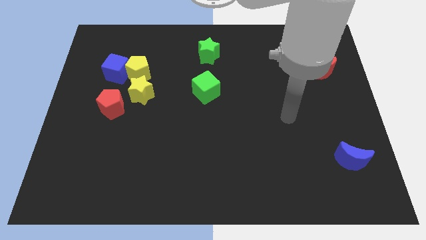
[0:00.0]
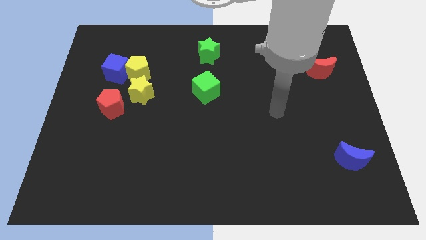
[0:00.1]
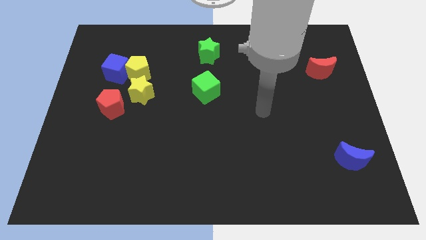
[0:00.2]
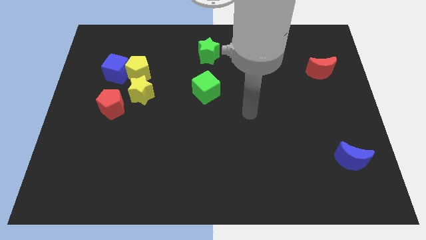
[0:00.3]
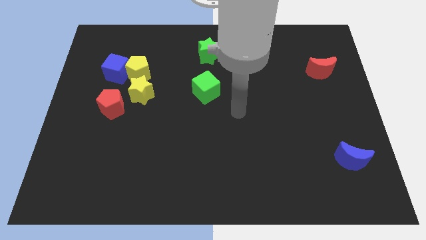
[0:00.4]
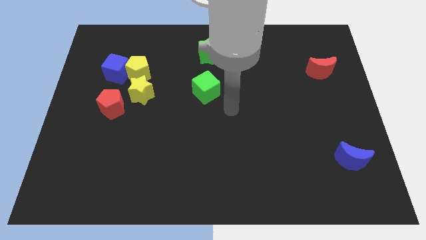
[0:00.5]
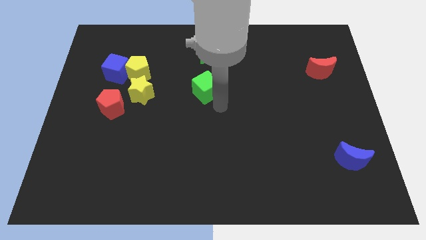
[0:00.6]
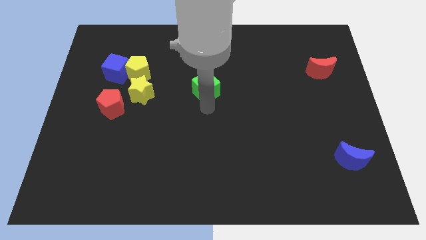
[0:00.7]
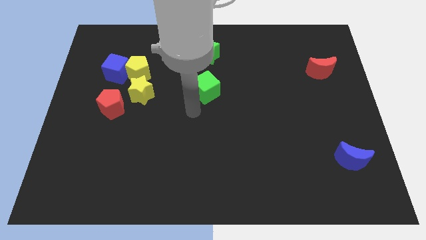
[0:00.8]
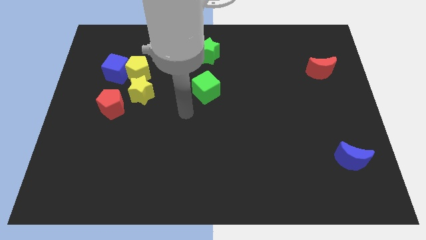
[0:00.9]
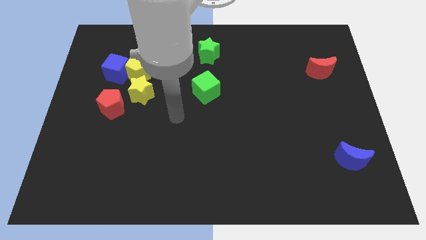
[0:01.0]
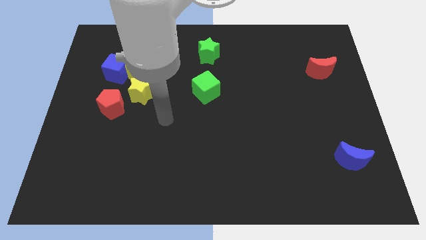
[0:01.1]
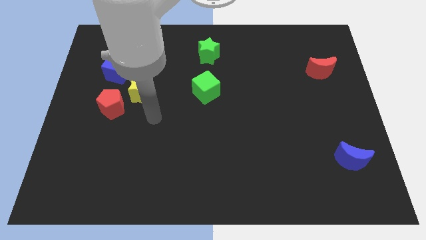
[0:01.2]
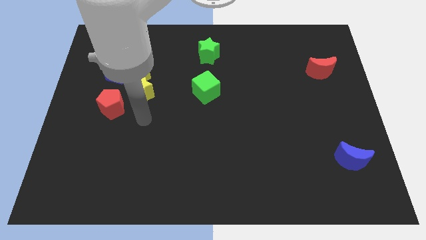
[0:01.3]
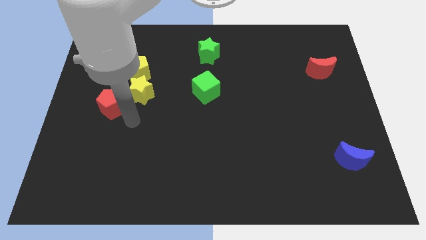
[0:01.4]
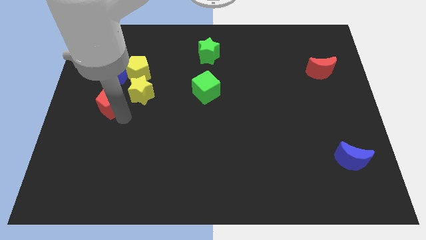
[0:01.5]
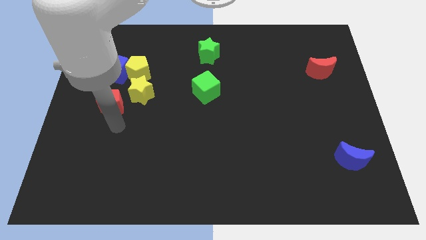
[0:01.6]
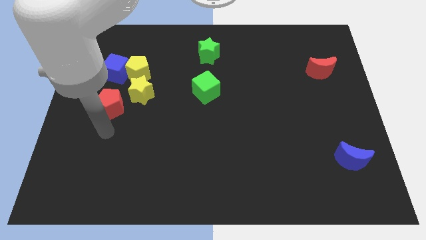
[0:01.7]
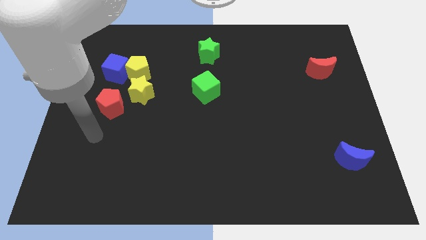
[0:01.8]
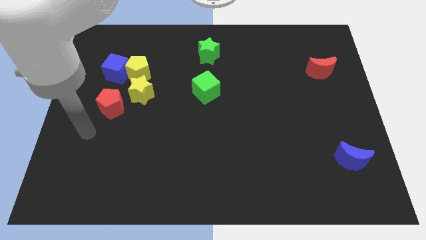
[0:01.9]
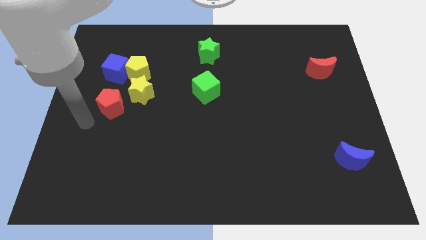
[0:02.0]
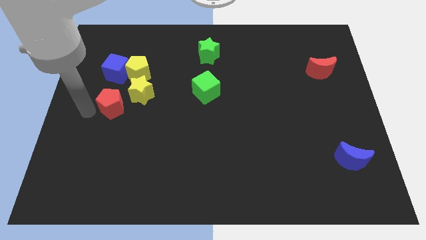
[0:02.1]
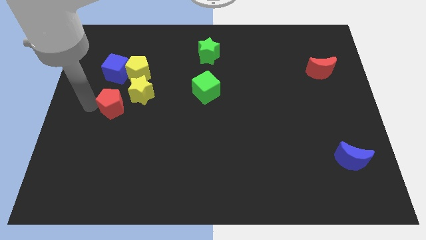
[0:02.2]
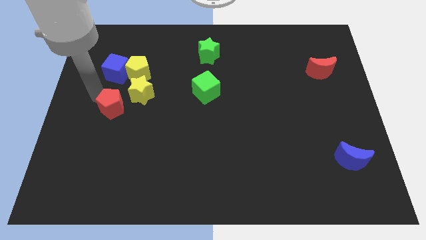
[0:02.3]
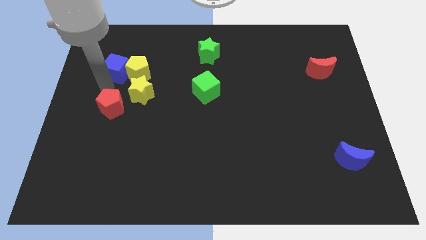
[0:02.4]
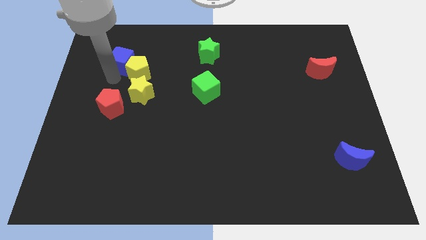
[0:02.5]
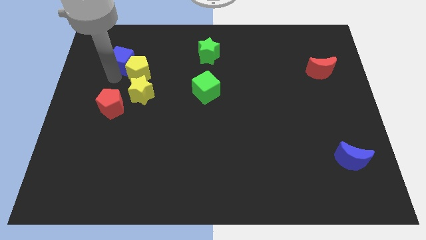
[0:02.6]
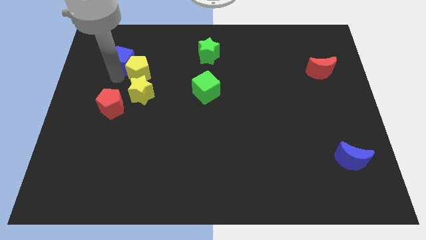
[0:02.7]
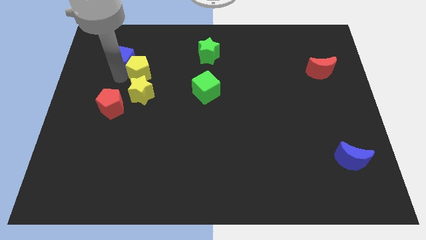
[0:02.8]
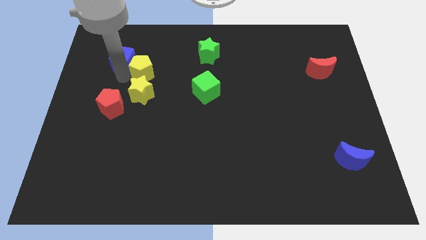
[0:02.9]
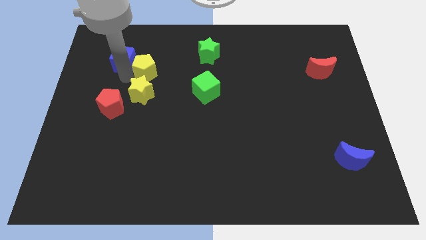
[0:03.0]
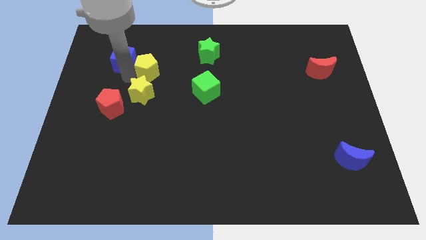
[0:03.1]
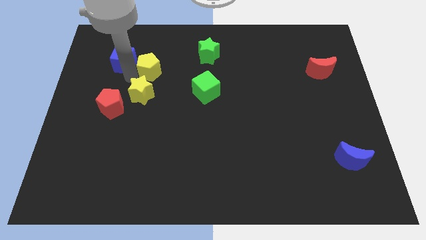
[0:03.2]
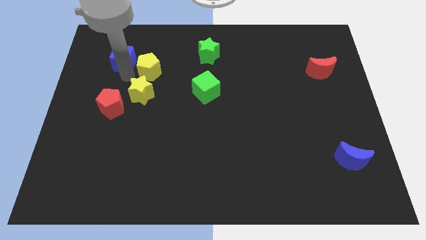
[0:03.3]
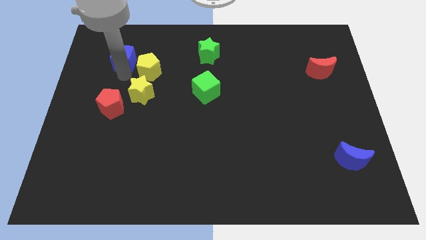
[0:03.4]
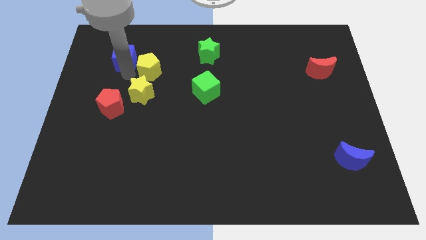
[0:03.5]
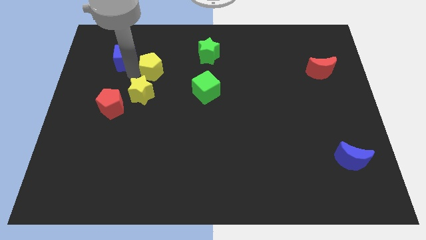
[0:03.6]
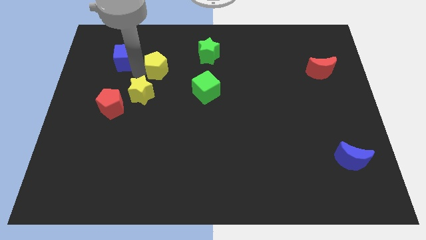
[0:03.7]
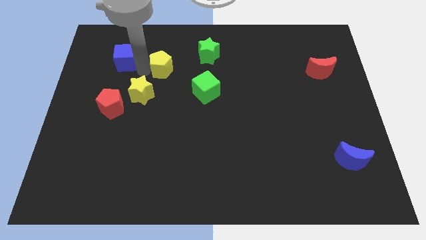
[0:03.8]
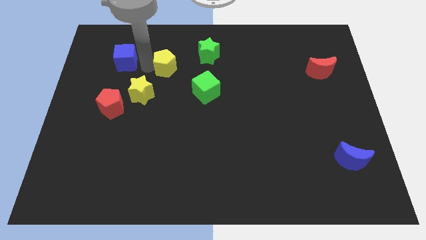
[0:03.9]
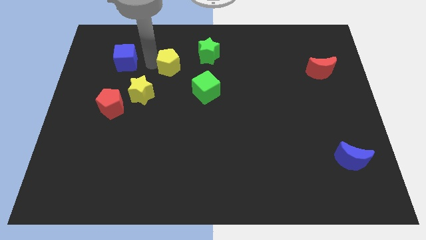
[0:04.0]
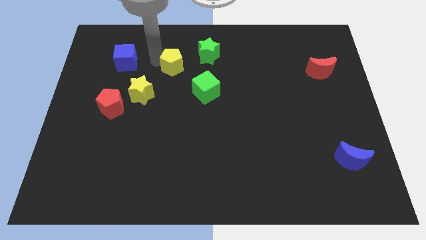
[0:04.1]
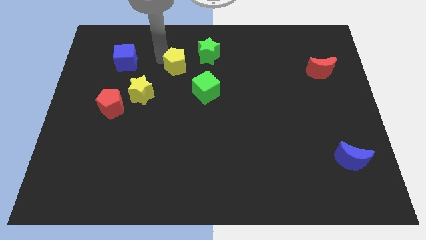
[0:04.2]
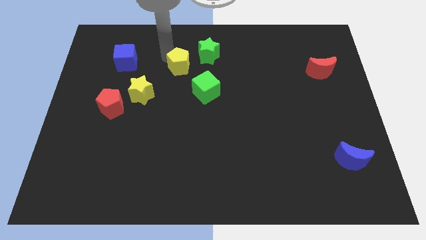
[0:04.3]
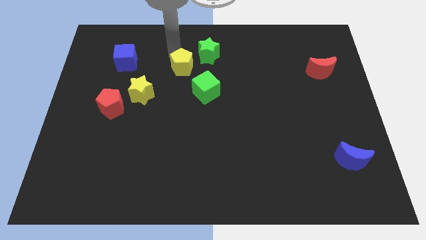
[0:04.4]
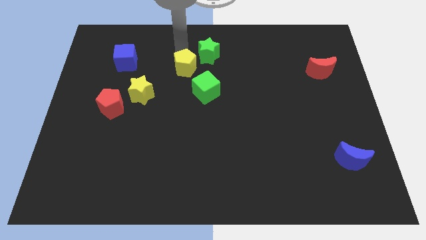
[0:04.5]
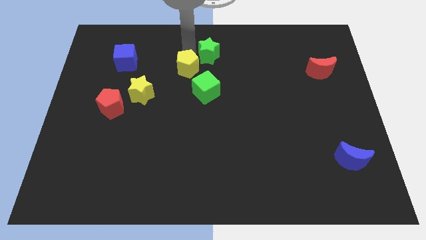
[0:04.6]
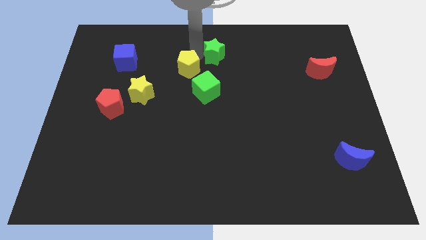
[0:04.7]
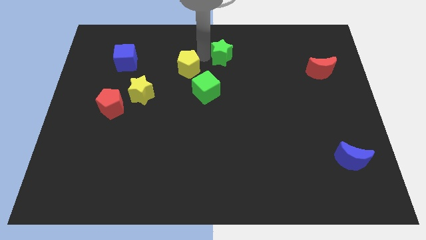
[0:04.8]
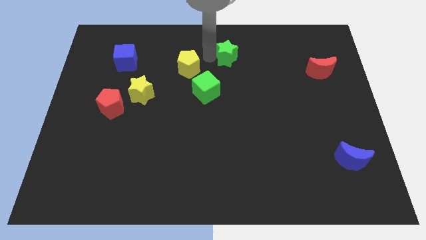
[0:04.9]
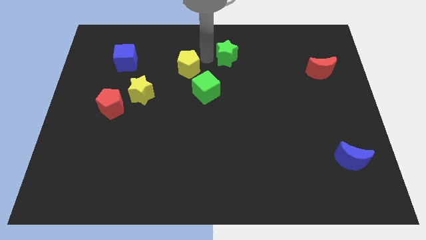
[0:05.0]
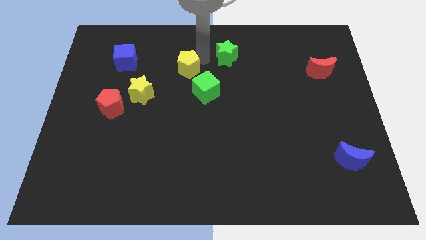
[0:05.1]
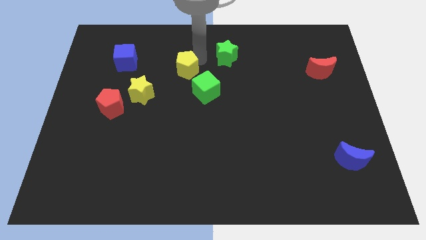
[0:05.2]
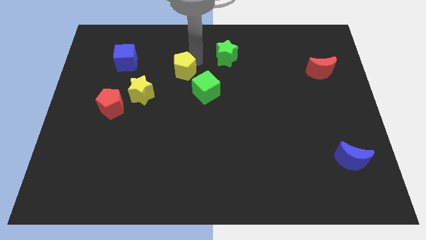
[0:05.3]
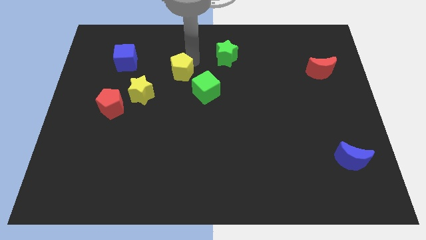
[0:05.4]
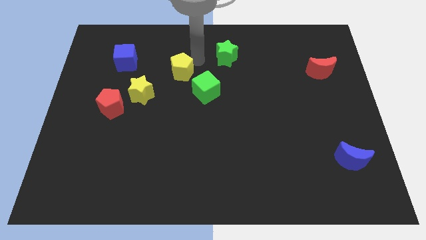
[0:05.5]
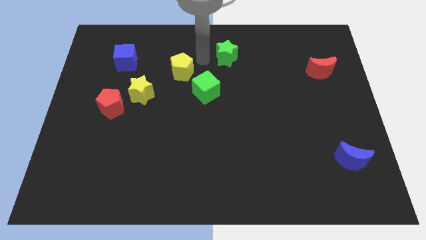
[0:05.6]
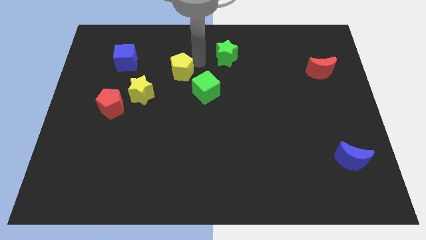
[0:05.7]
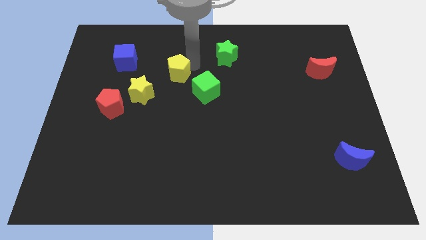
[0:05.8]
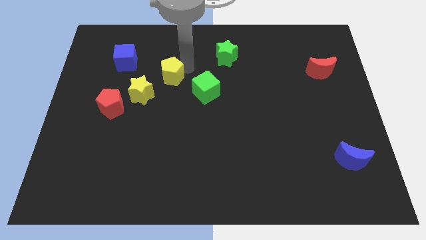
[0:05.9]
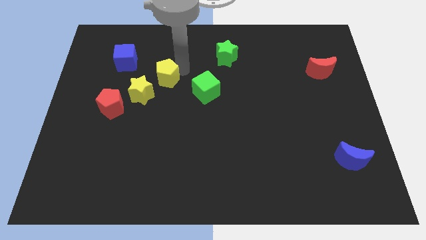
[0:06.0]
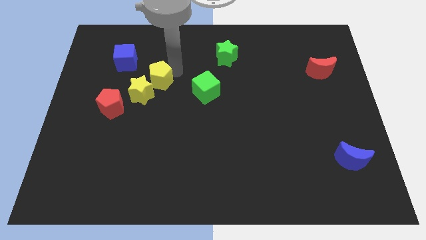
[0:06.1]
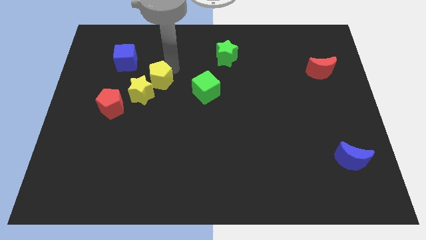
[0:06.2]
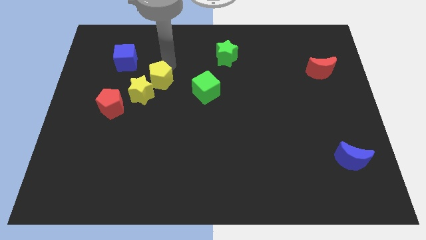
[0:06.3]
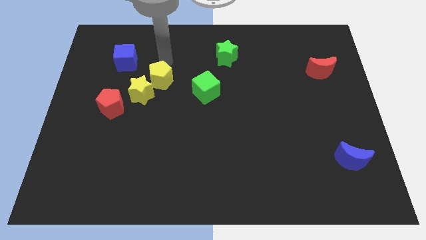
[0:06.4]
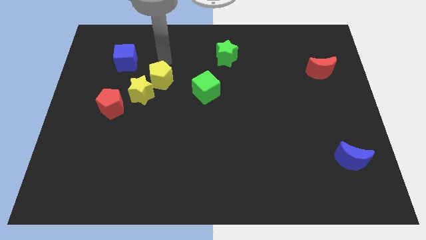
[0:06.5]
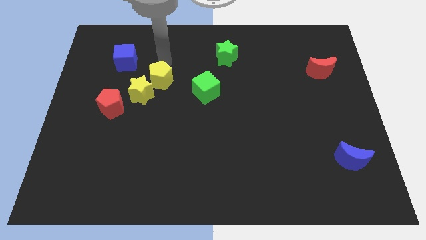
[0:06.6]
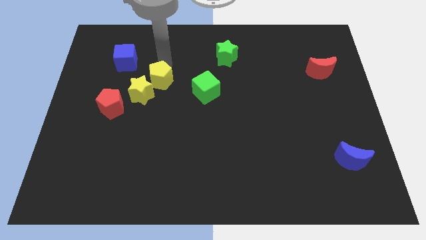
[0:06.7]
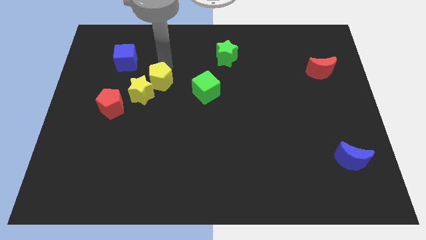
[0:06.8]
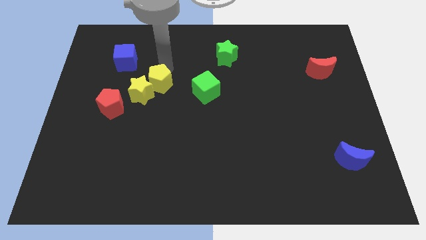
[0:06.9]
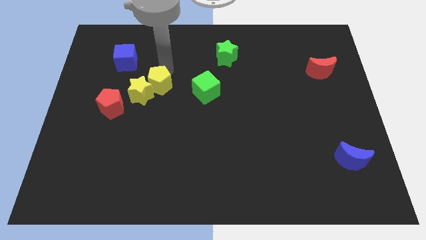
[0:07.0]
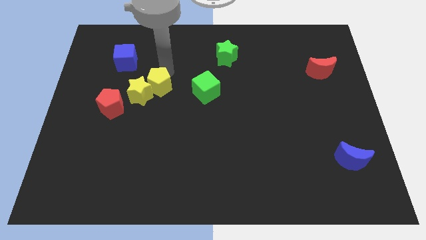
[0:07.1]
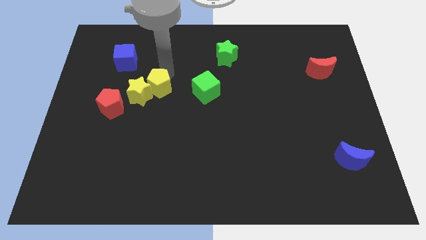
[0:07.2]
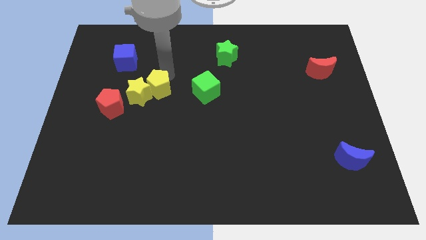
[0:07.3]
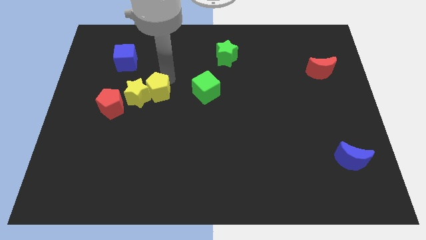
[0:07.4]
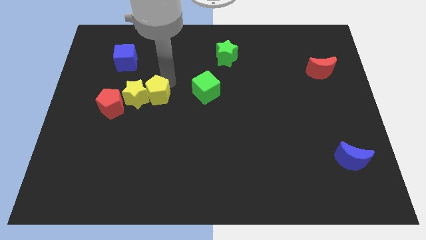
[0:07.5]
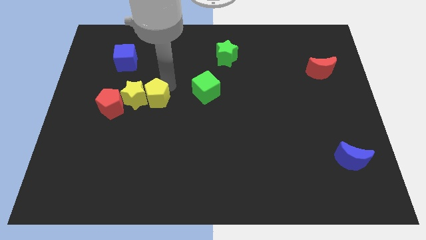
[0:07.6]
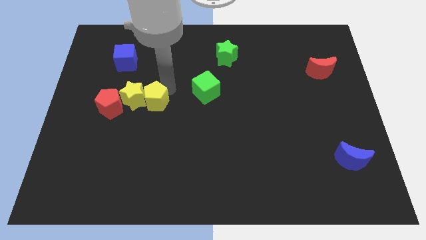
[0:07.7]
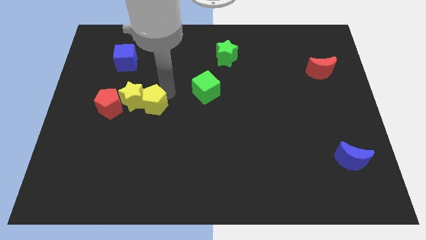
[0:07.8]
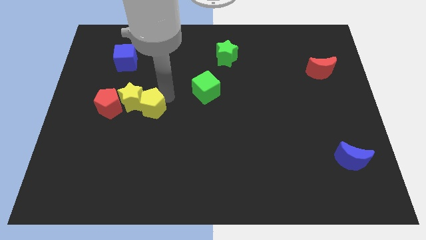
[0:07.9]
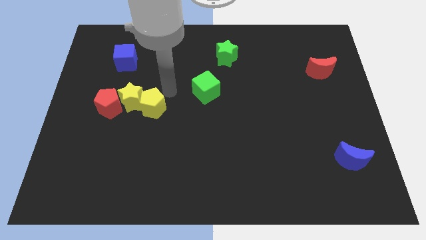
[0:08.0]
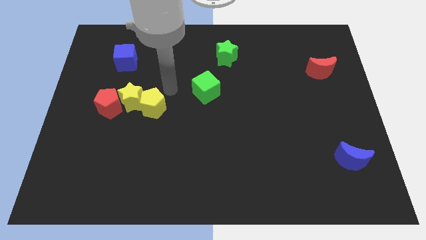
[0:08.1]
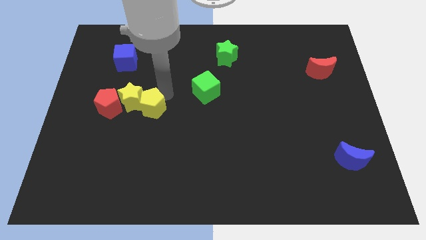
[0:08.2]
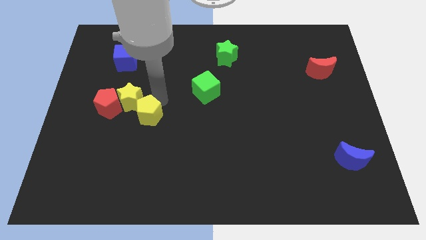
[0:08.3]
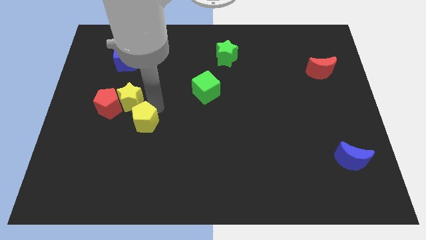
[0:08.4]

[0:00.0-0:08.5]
put the yellow pentagon to the bottom side of the yellow star
